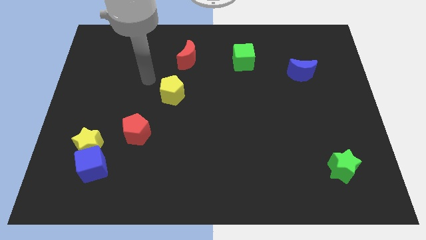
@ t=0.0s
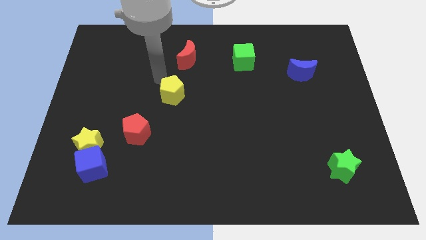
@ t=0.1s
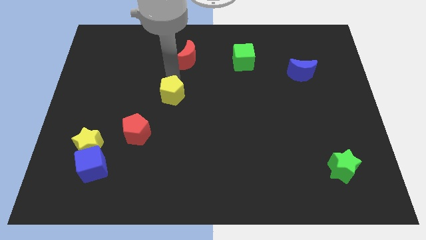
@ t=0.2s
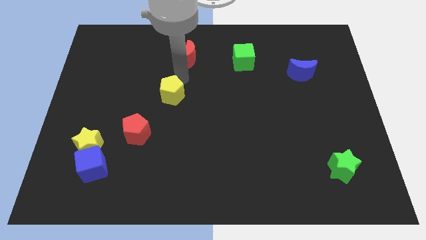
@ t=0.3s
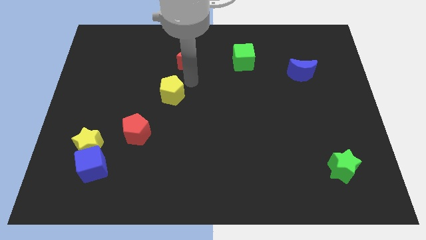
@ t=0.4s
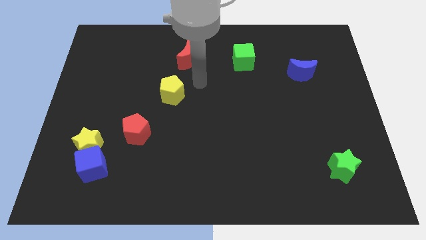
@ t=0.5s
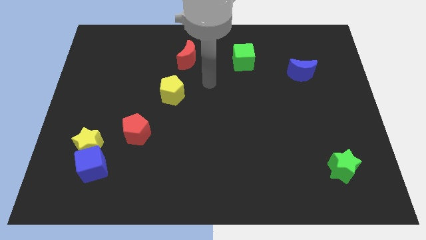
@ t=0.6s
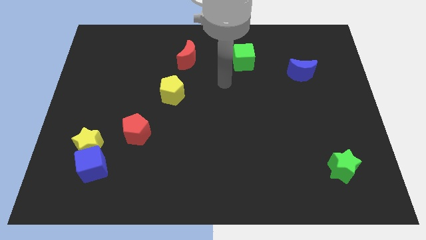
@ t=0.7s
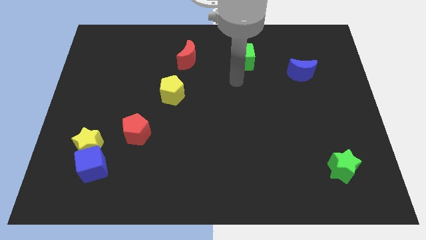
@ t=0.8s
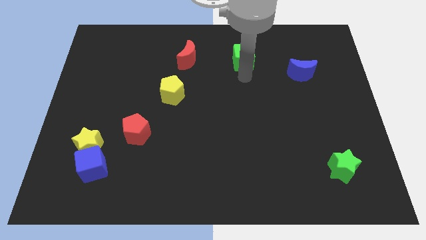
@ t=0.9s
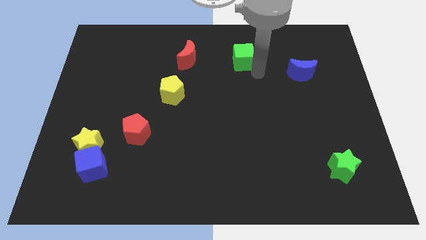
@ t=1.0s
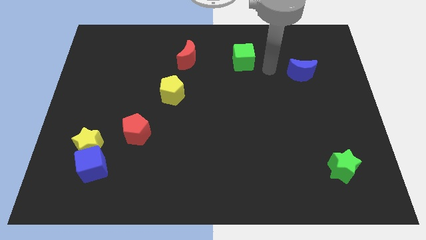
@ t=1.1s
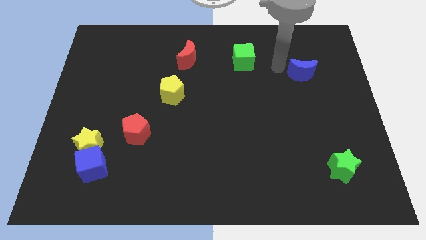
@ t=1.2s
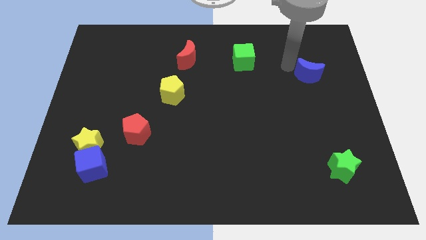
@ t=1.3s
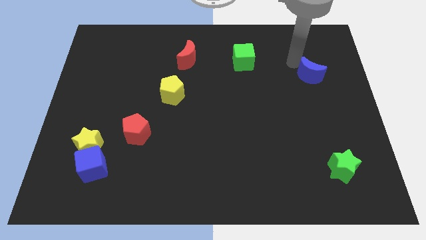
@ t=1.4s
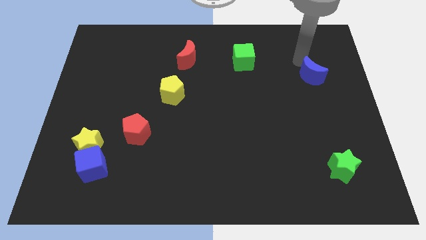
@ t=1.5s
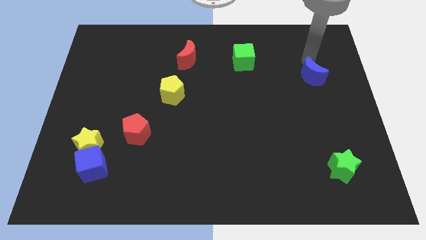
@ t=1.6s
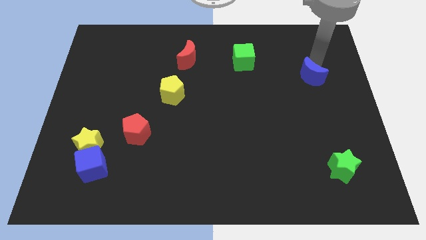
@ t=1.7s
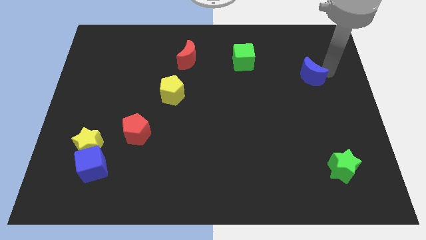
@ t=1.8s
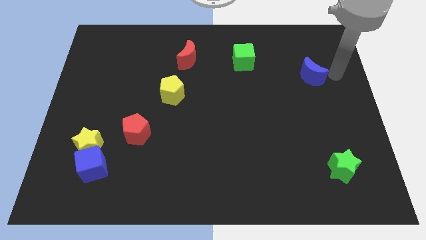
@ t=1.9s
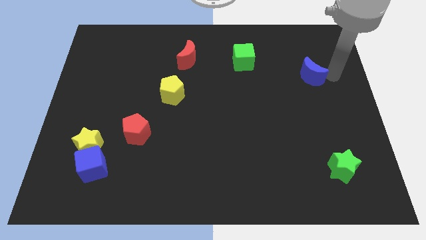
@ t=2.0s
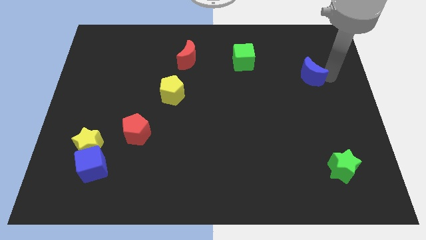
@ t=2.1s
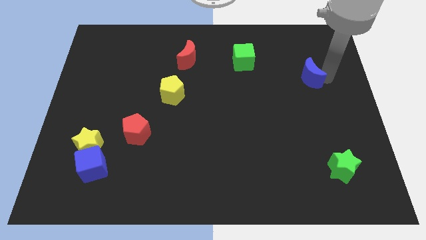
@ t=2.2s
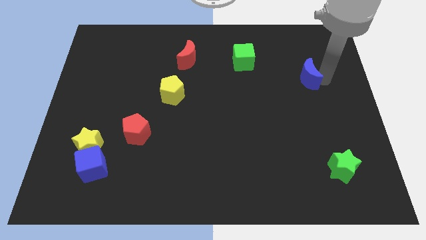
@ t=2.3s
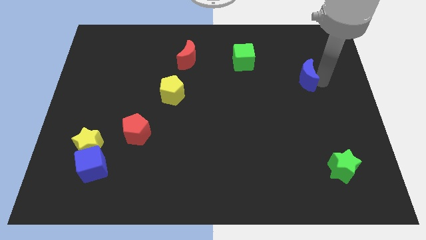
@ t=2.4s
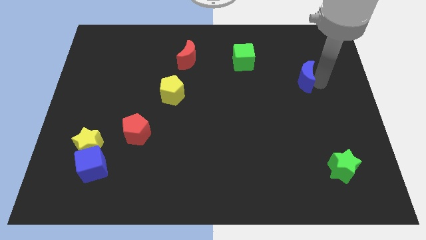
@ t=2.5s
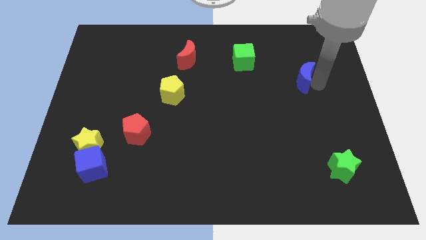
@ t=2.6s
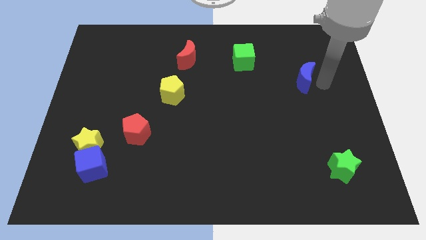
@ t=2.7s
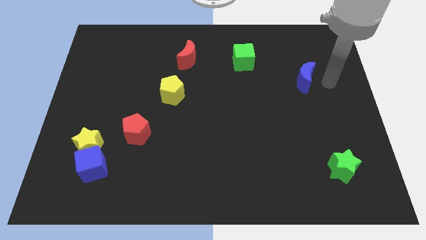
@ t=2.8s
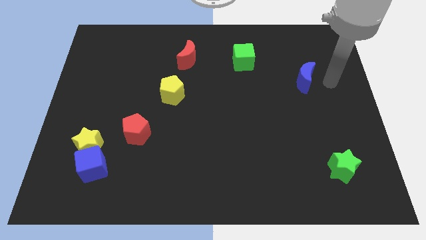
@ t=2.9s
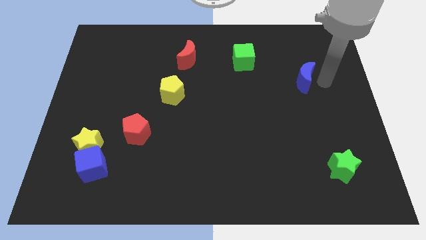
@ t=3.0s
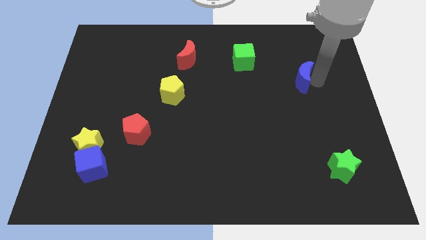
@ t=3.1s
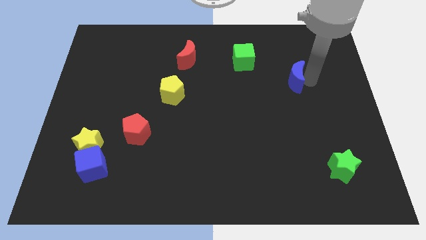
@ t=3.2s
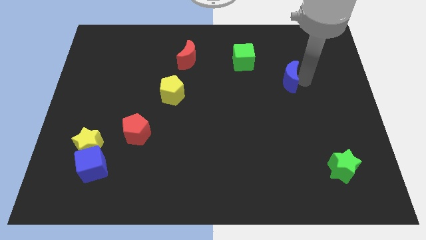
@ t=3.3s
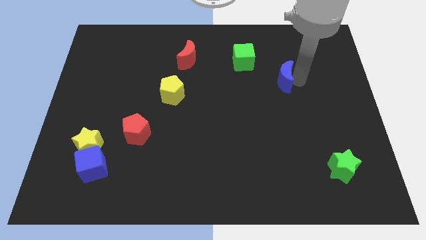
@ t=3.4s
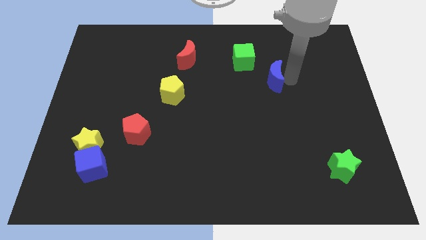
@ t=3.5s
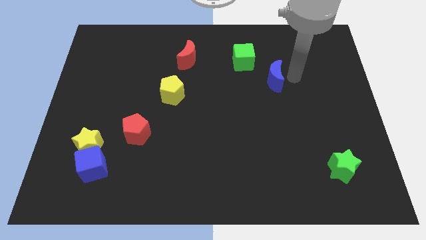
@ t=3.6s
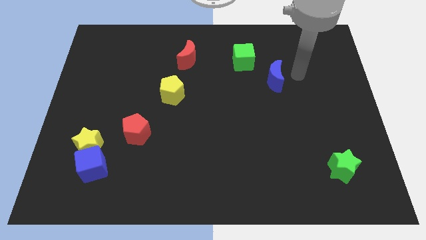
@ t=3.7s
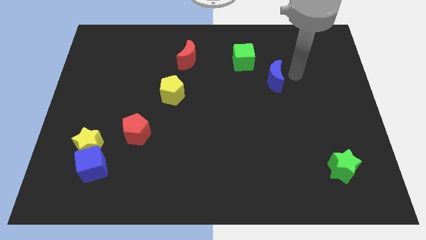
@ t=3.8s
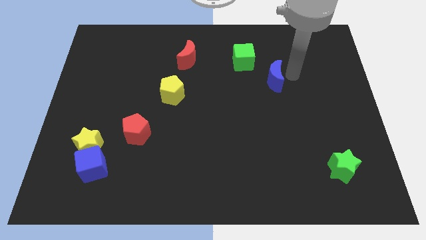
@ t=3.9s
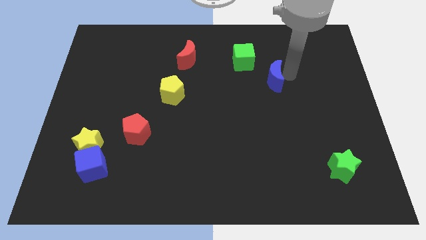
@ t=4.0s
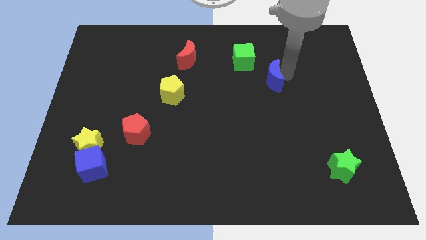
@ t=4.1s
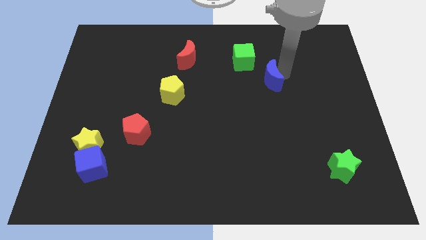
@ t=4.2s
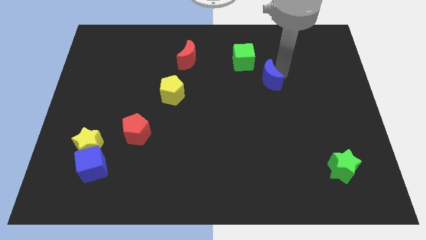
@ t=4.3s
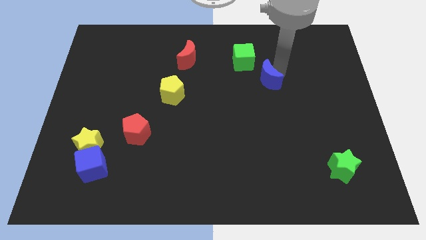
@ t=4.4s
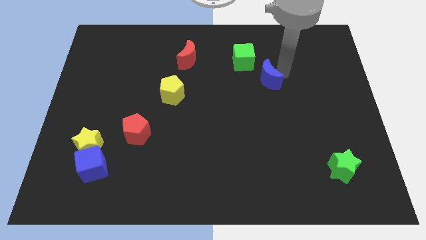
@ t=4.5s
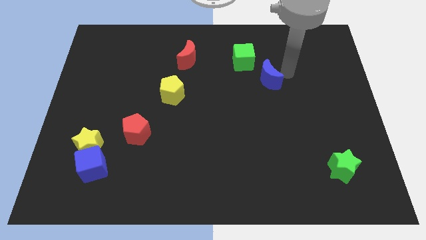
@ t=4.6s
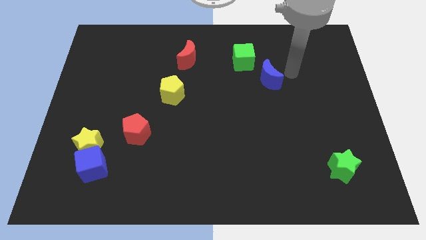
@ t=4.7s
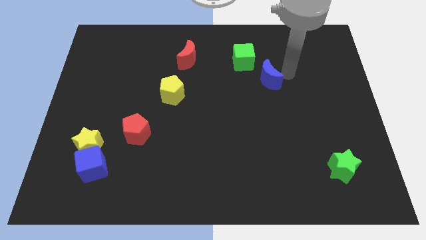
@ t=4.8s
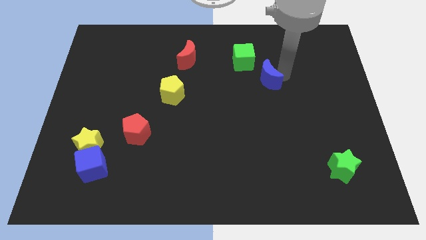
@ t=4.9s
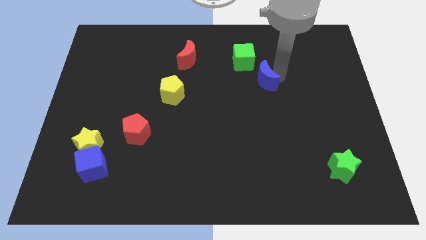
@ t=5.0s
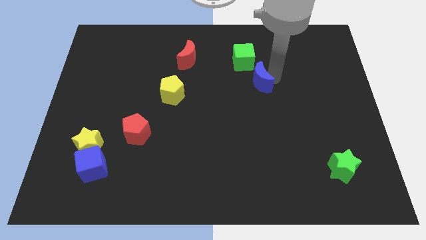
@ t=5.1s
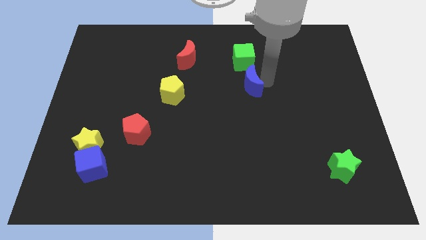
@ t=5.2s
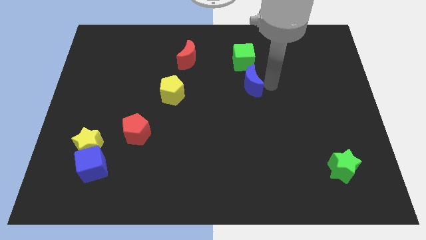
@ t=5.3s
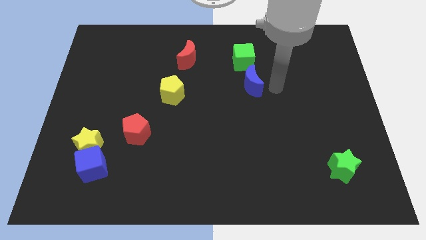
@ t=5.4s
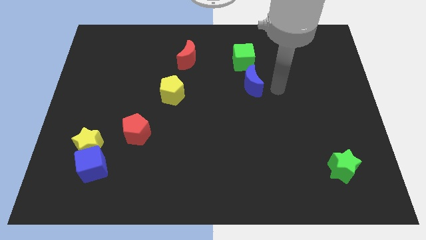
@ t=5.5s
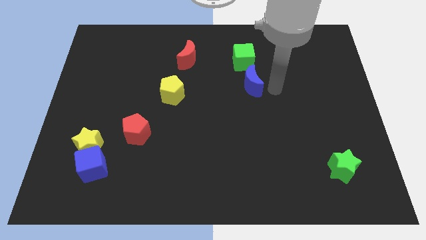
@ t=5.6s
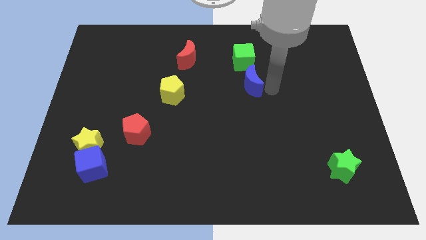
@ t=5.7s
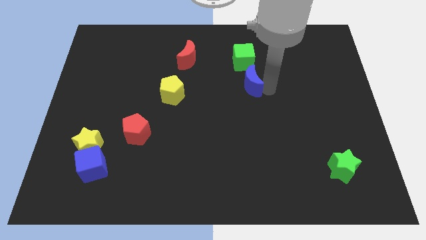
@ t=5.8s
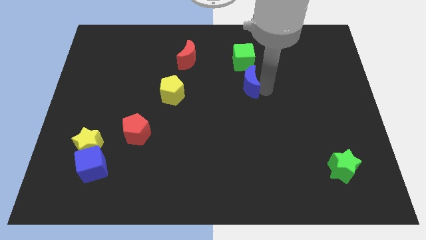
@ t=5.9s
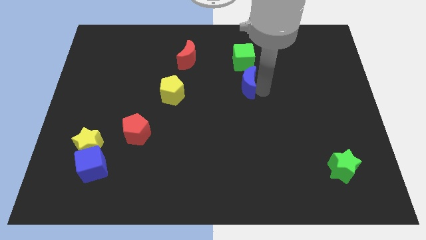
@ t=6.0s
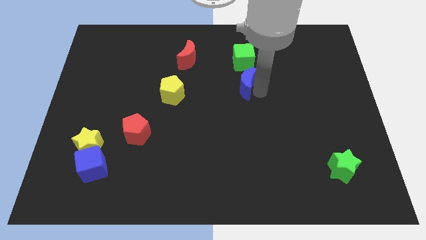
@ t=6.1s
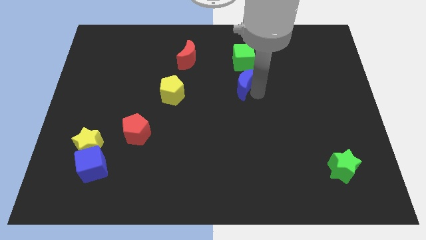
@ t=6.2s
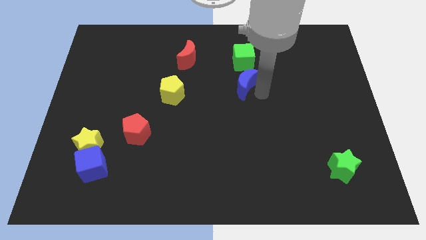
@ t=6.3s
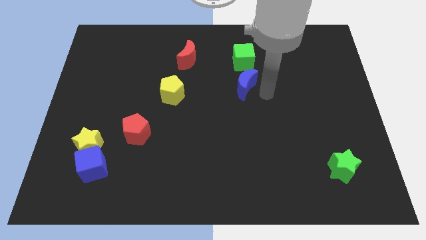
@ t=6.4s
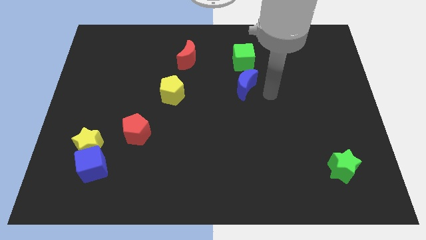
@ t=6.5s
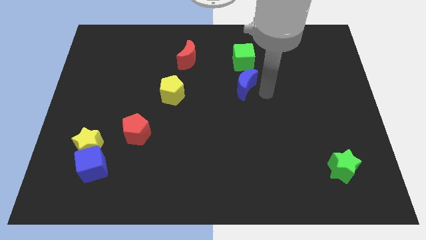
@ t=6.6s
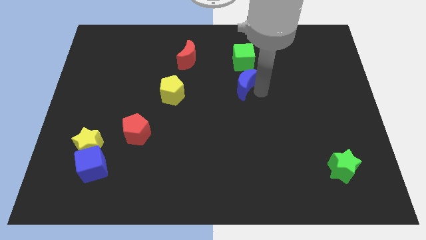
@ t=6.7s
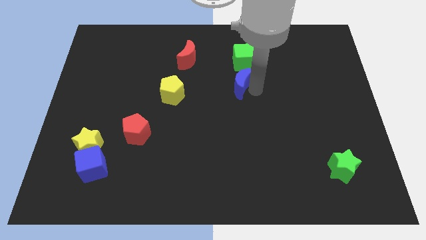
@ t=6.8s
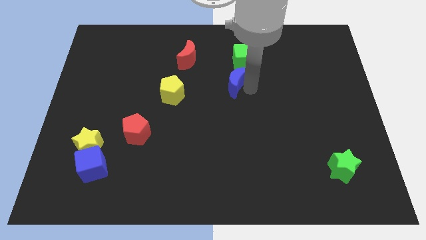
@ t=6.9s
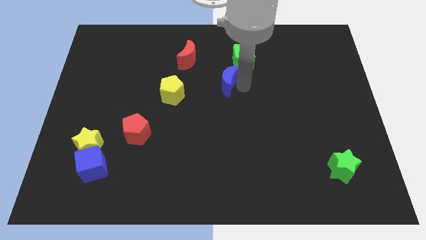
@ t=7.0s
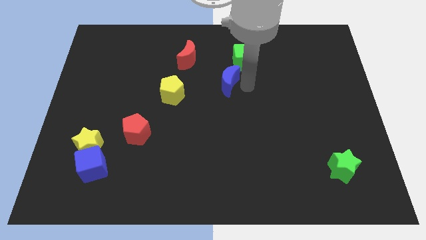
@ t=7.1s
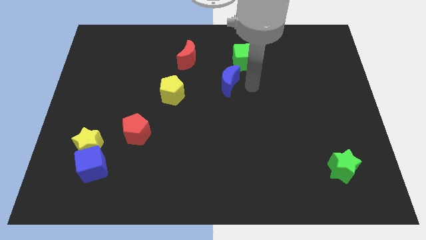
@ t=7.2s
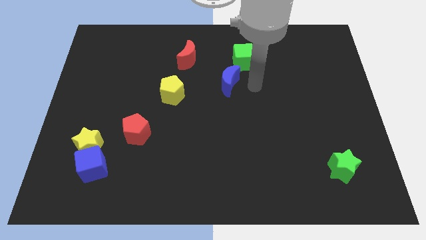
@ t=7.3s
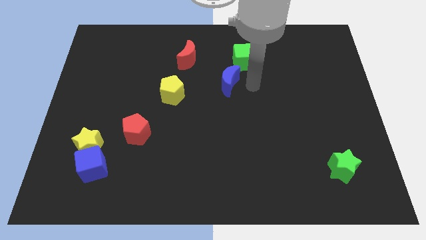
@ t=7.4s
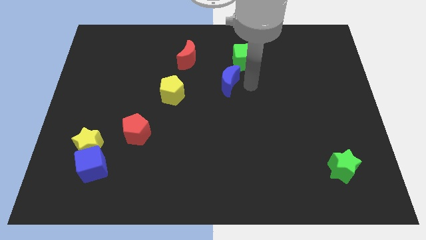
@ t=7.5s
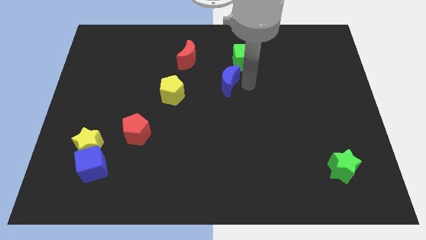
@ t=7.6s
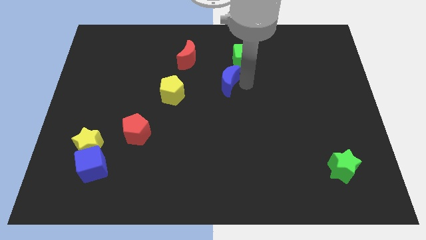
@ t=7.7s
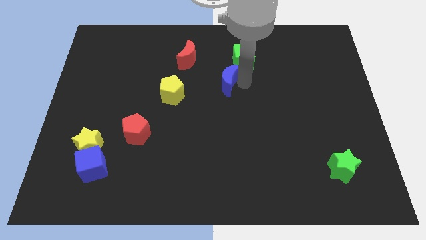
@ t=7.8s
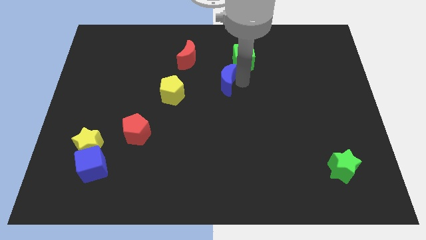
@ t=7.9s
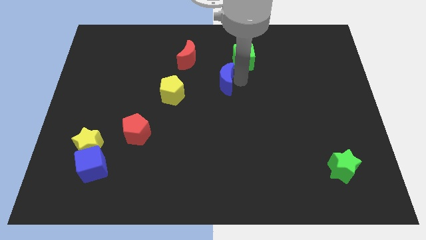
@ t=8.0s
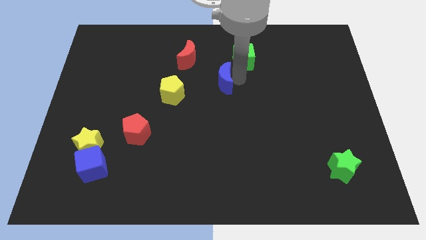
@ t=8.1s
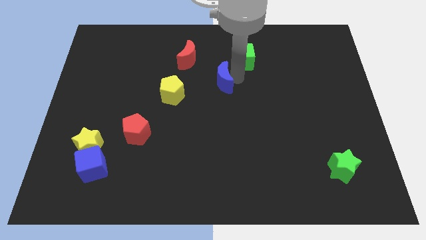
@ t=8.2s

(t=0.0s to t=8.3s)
slide the blue moon to the left
